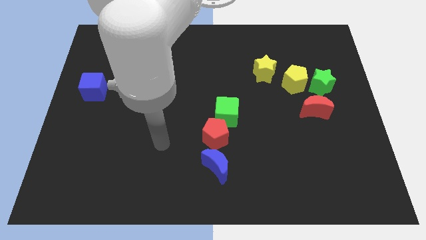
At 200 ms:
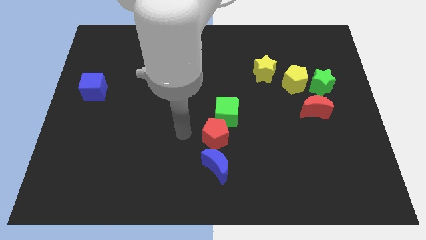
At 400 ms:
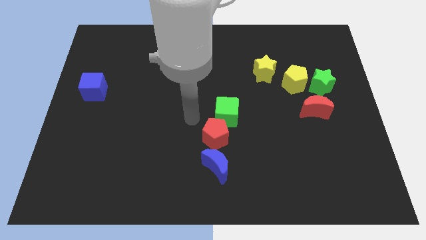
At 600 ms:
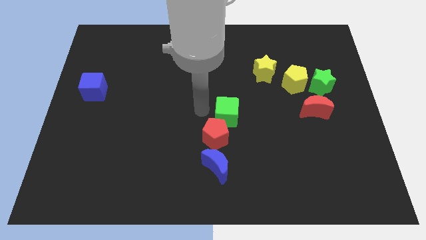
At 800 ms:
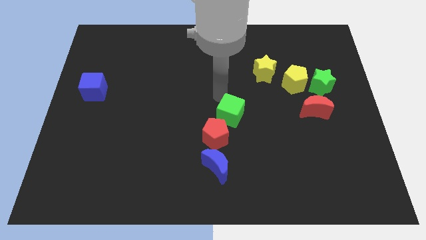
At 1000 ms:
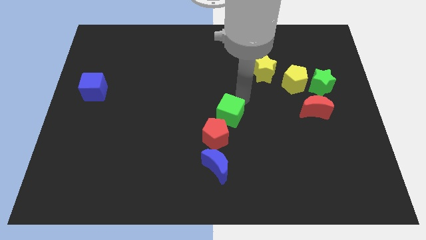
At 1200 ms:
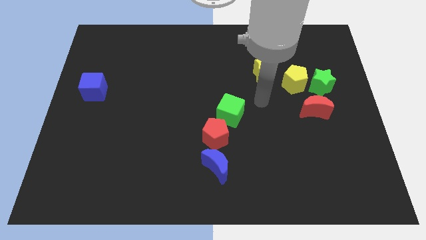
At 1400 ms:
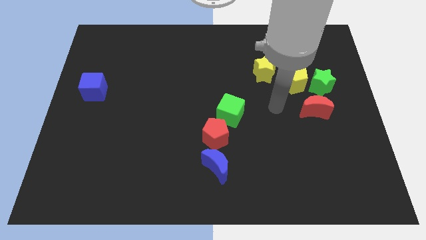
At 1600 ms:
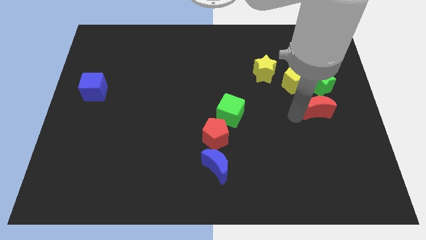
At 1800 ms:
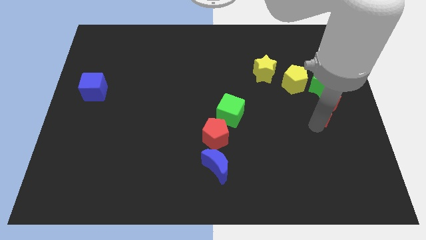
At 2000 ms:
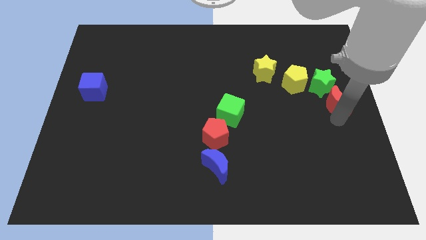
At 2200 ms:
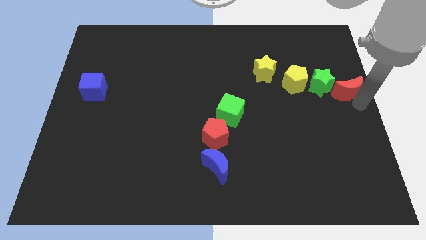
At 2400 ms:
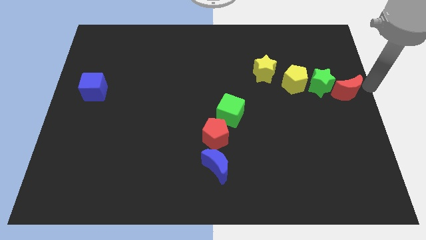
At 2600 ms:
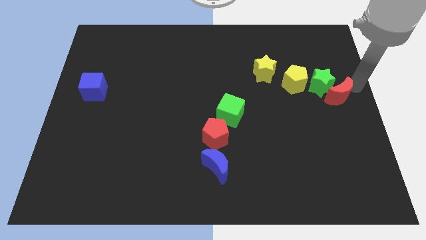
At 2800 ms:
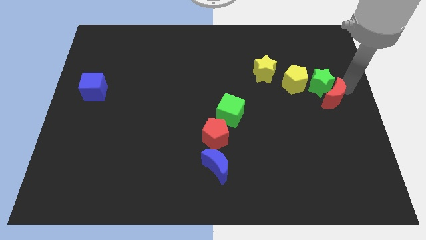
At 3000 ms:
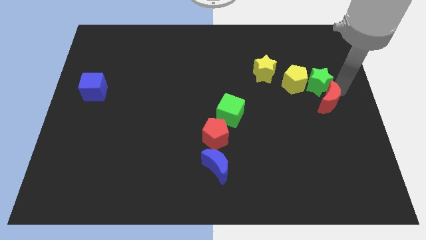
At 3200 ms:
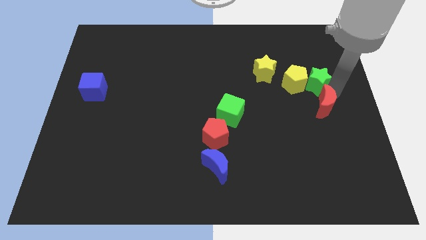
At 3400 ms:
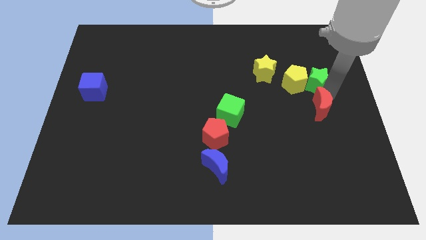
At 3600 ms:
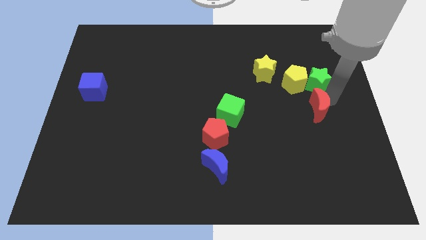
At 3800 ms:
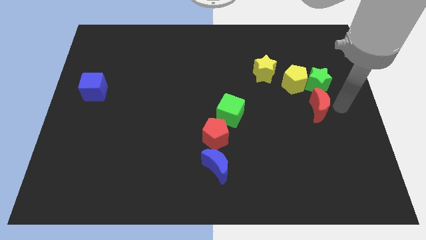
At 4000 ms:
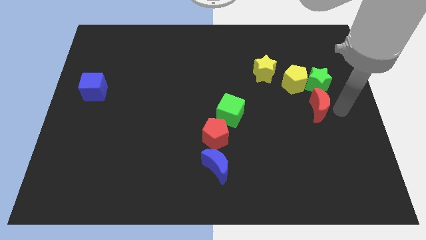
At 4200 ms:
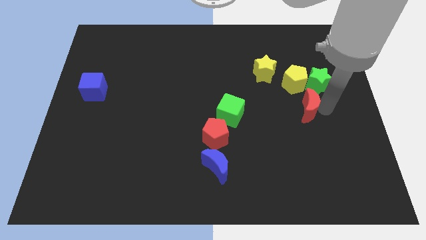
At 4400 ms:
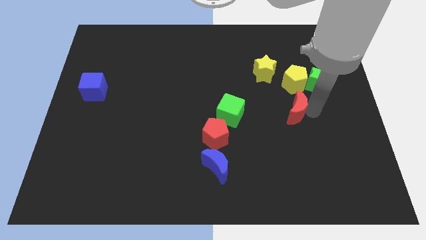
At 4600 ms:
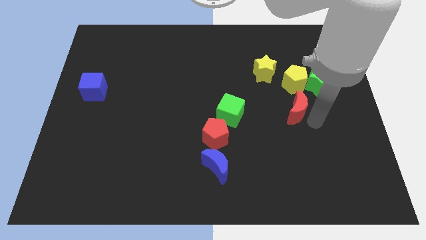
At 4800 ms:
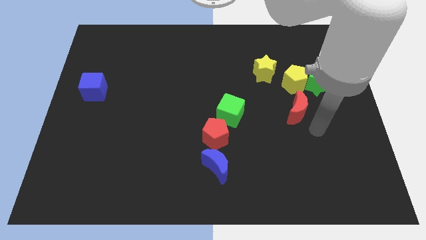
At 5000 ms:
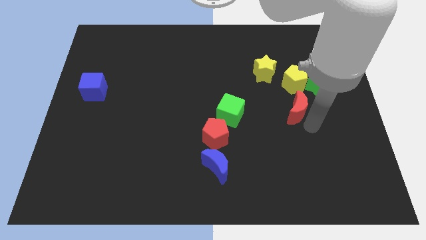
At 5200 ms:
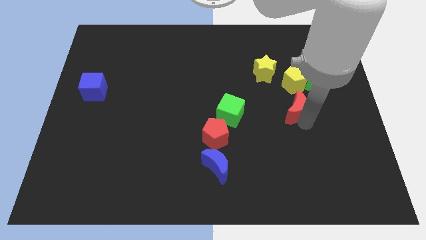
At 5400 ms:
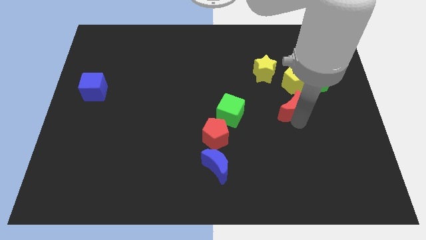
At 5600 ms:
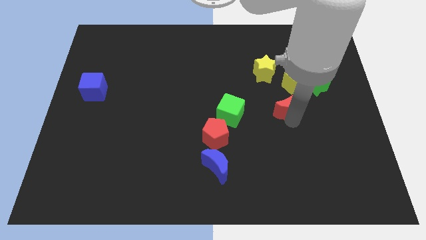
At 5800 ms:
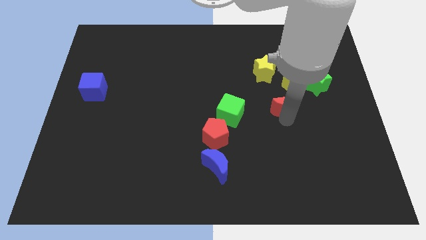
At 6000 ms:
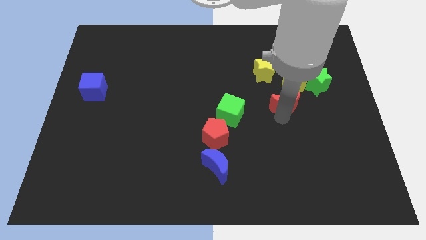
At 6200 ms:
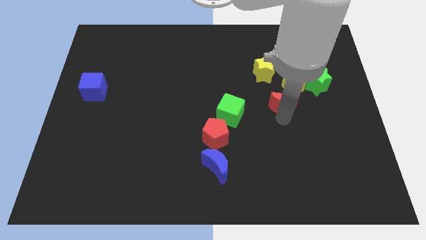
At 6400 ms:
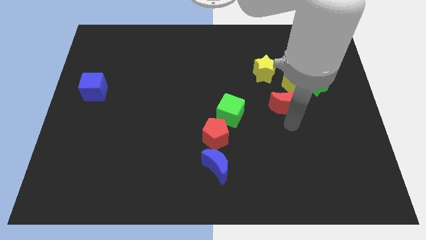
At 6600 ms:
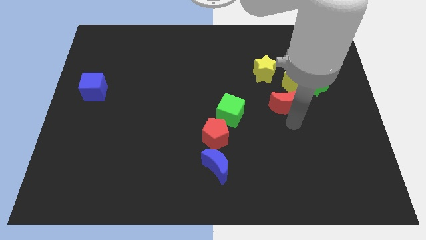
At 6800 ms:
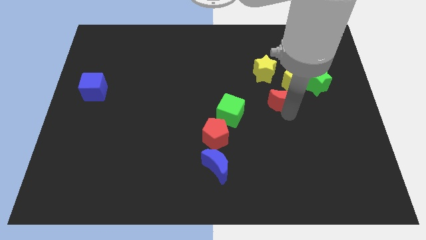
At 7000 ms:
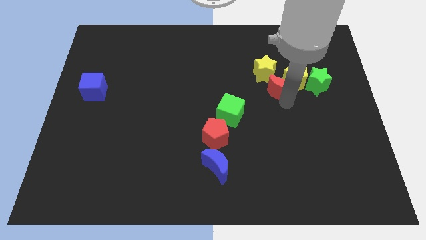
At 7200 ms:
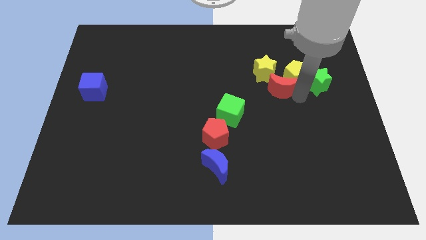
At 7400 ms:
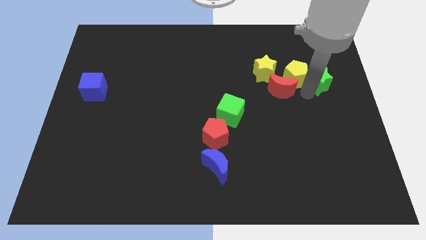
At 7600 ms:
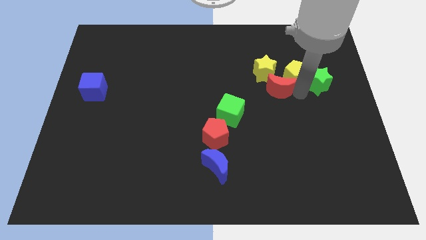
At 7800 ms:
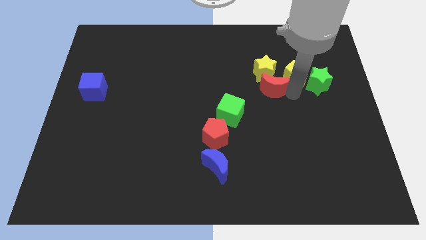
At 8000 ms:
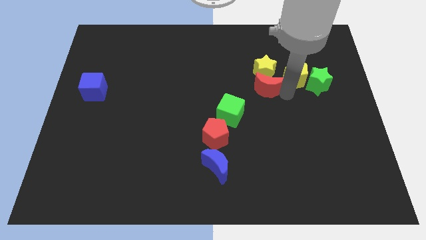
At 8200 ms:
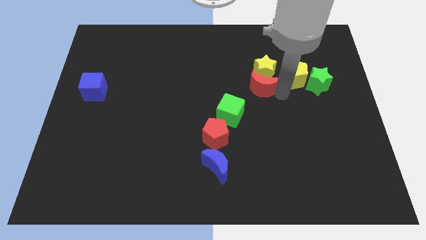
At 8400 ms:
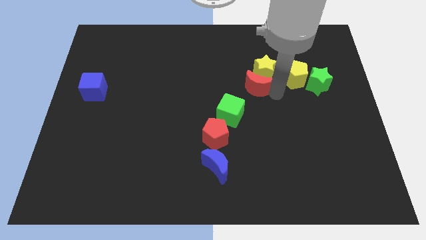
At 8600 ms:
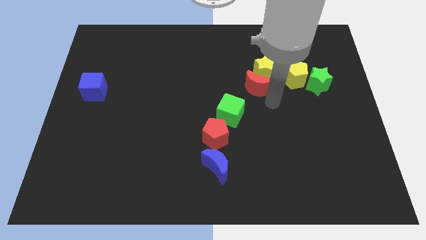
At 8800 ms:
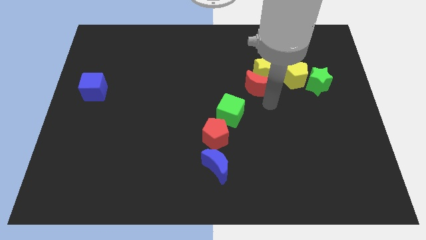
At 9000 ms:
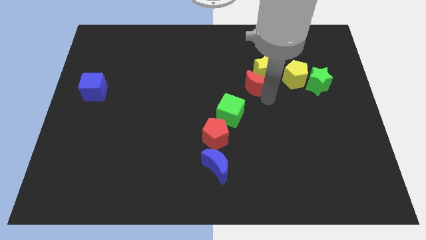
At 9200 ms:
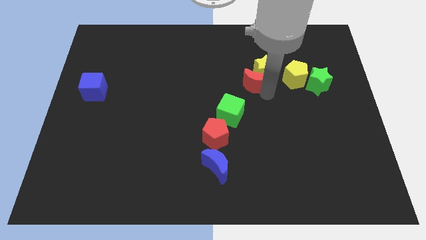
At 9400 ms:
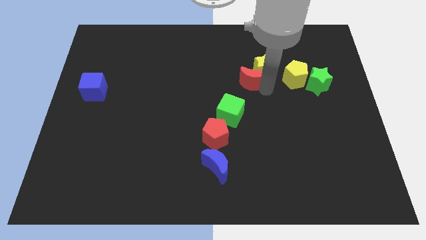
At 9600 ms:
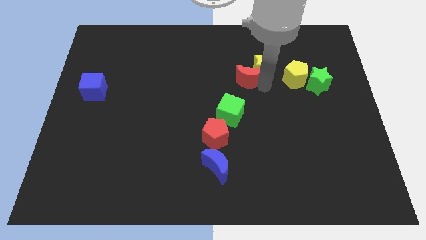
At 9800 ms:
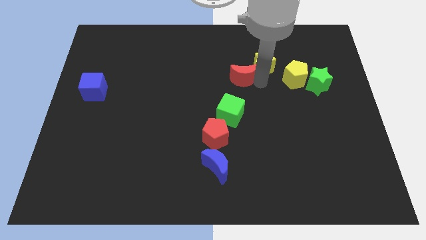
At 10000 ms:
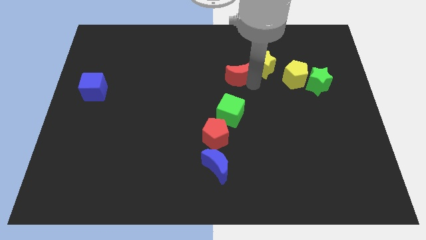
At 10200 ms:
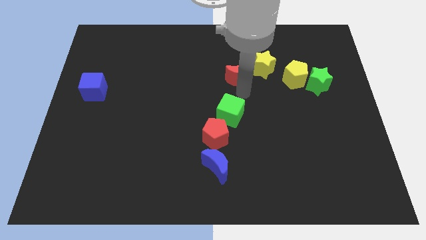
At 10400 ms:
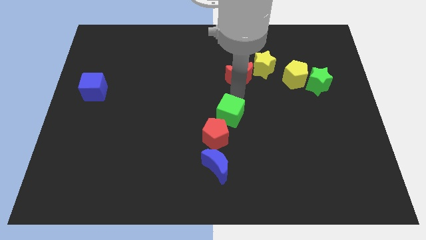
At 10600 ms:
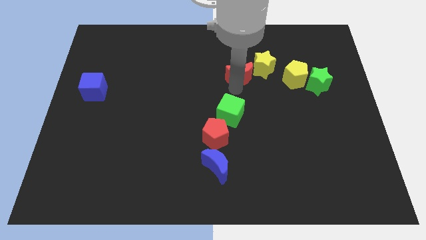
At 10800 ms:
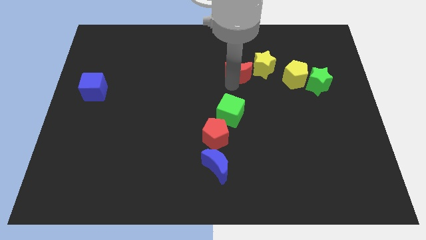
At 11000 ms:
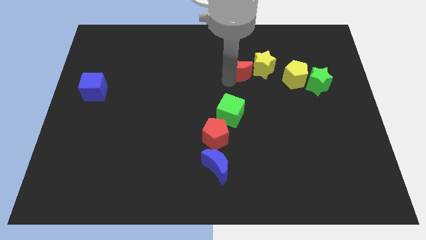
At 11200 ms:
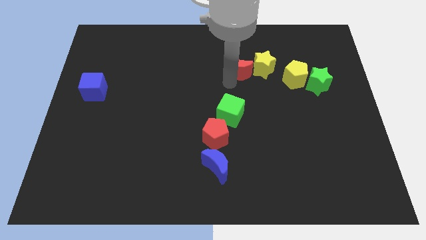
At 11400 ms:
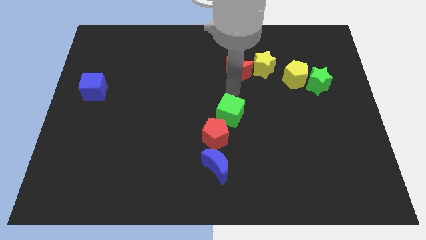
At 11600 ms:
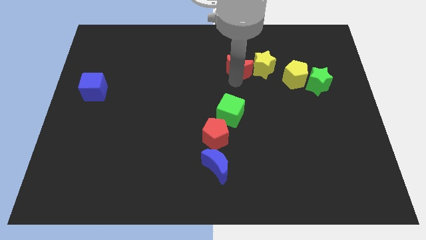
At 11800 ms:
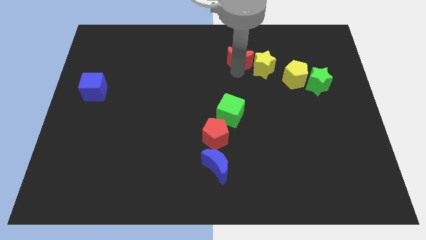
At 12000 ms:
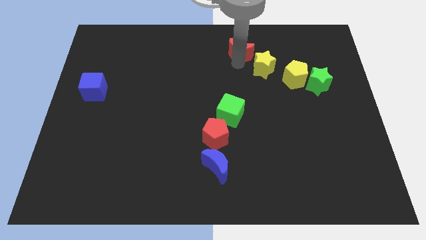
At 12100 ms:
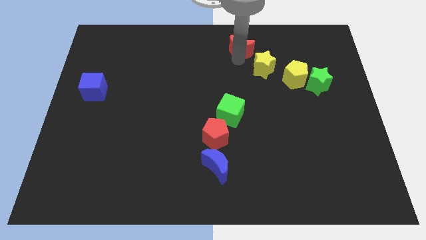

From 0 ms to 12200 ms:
slide the red moon to the towards your base

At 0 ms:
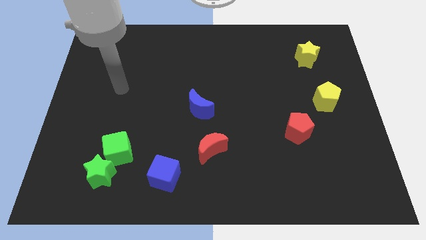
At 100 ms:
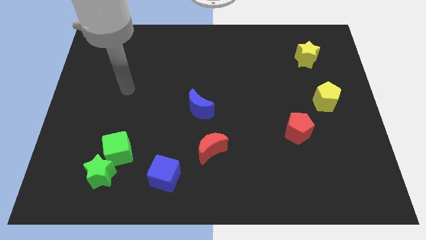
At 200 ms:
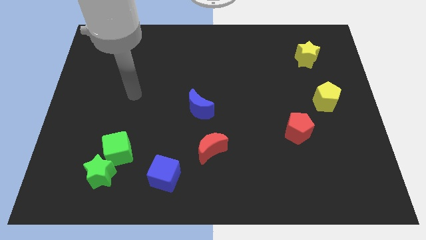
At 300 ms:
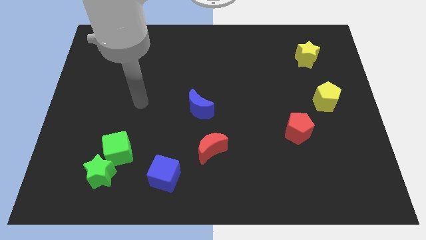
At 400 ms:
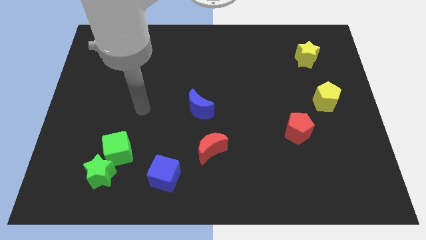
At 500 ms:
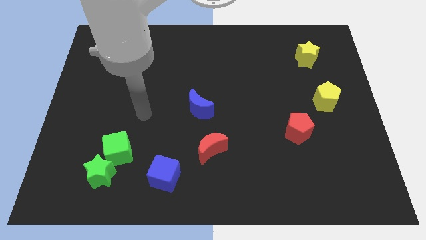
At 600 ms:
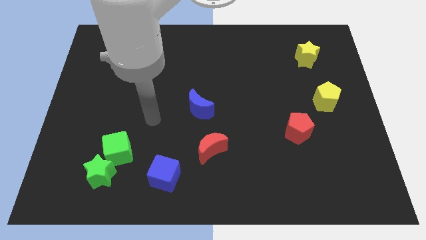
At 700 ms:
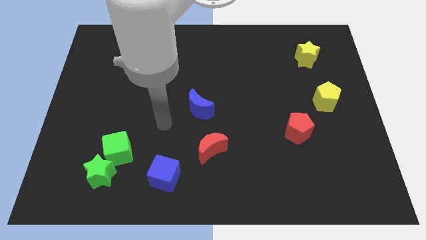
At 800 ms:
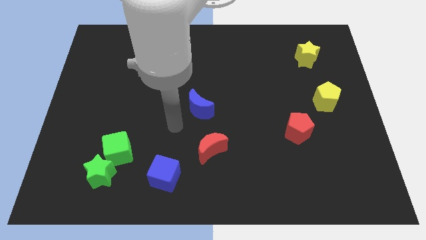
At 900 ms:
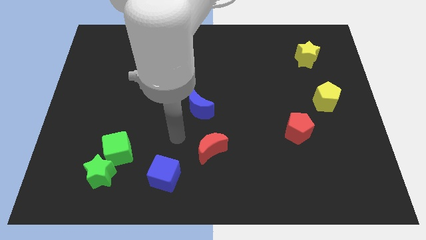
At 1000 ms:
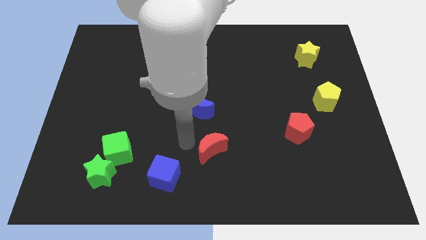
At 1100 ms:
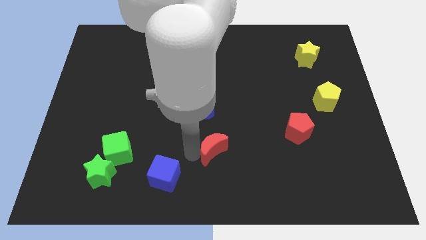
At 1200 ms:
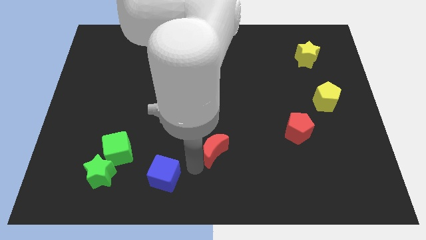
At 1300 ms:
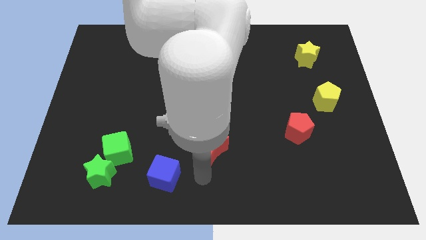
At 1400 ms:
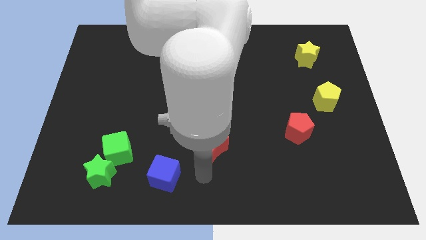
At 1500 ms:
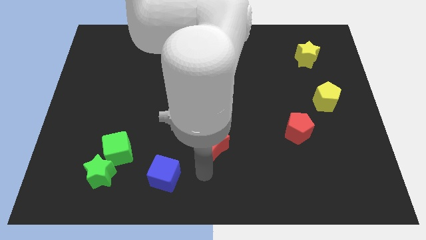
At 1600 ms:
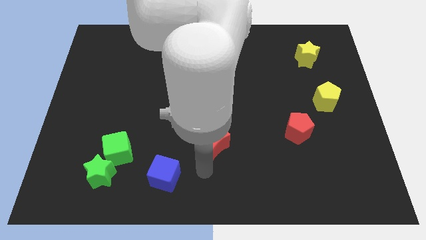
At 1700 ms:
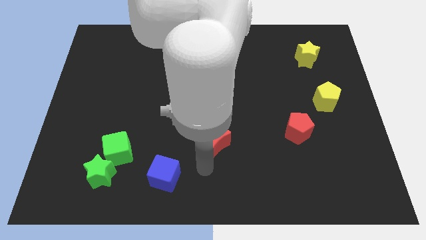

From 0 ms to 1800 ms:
slide the red moon to the middle of the board
